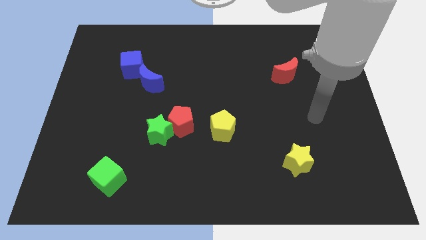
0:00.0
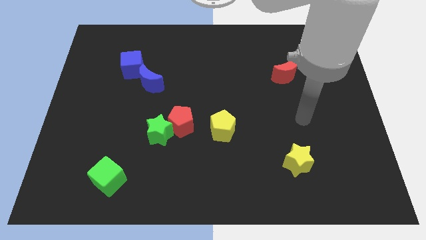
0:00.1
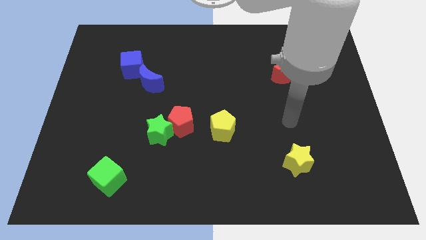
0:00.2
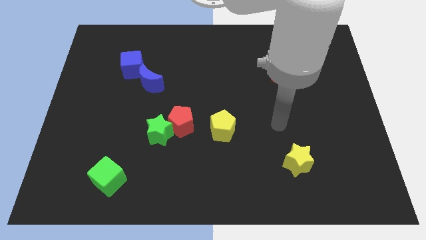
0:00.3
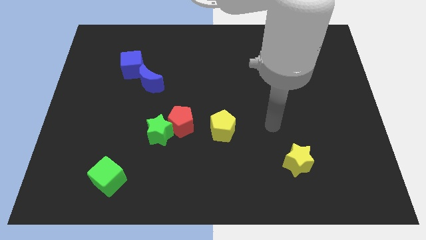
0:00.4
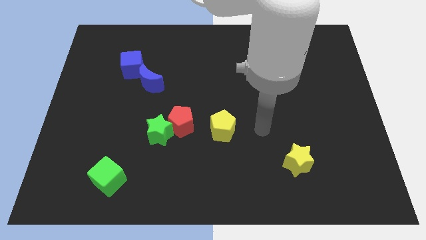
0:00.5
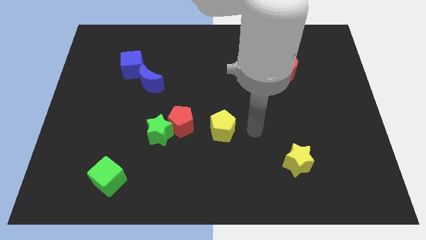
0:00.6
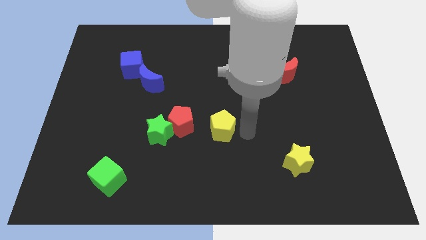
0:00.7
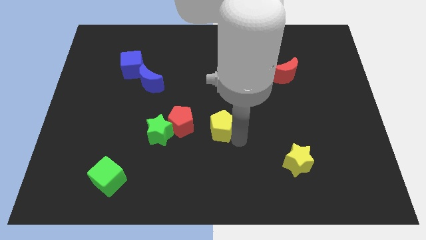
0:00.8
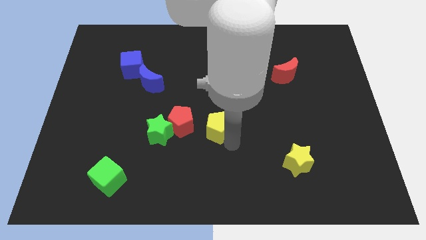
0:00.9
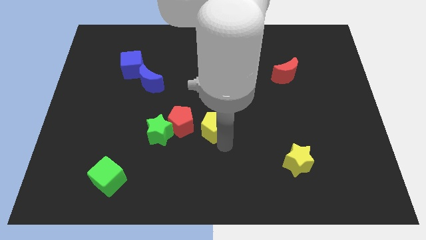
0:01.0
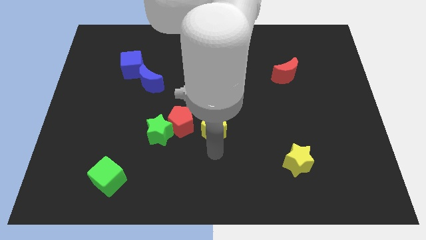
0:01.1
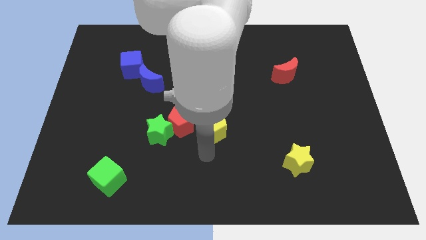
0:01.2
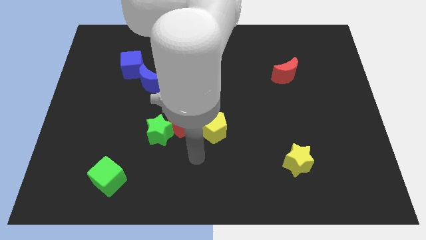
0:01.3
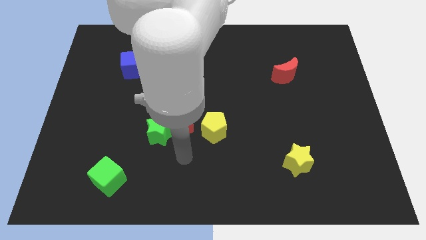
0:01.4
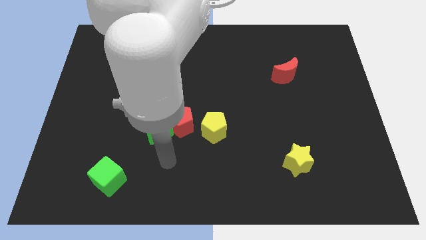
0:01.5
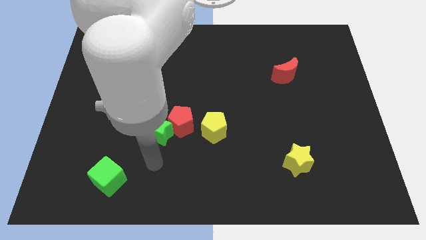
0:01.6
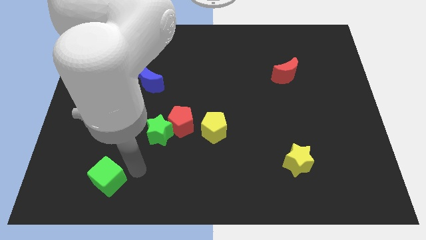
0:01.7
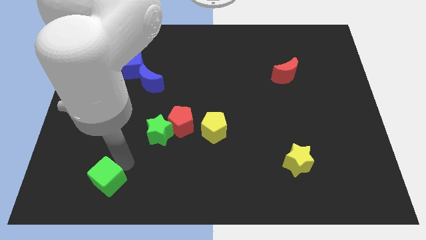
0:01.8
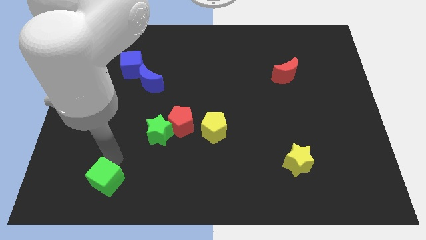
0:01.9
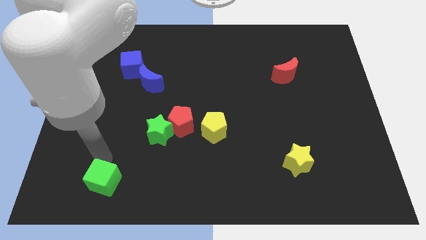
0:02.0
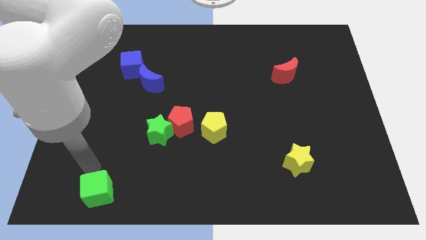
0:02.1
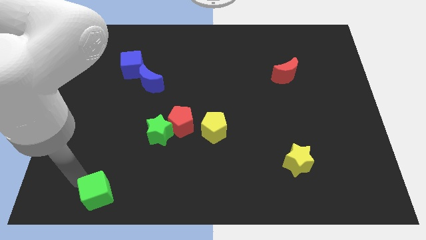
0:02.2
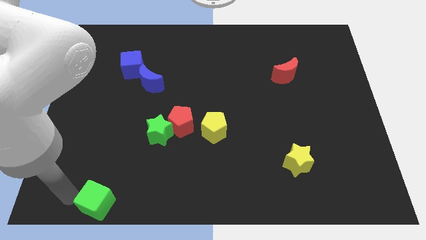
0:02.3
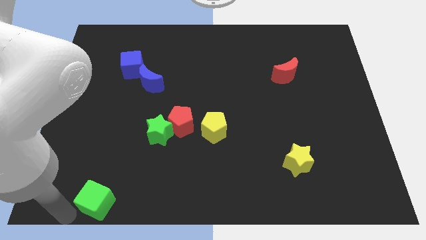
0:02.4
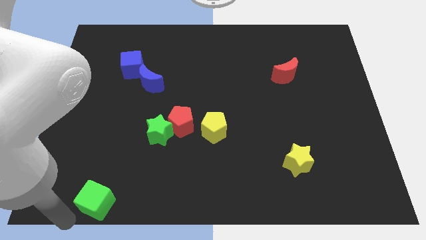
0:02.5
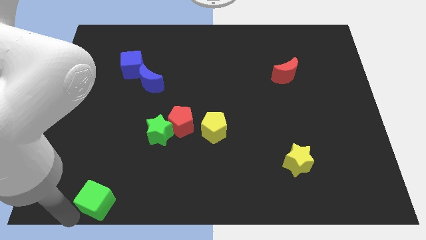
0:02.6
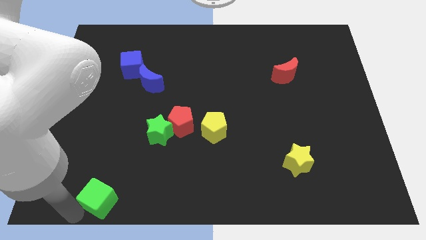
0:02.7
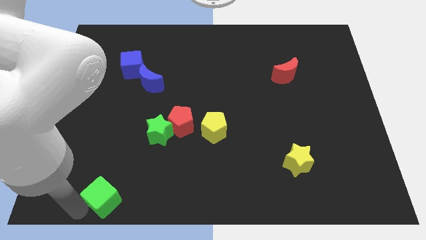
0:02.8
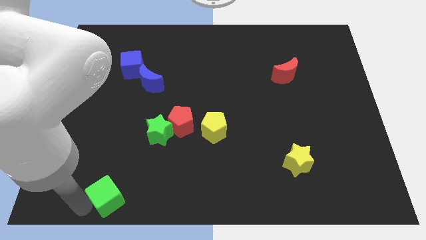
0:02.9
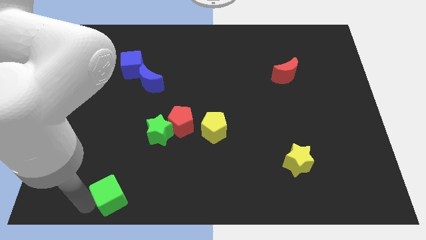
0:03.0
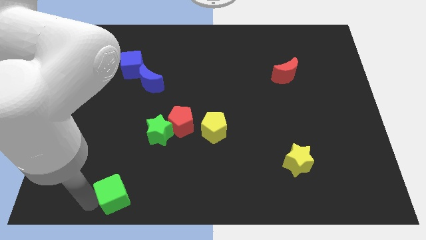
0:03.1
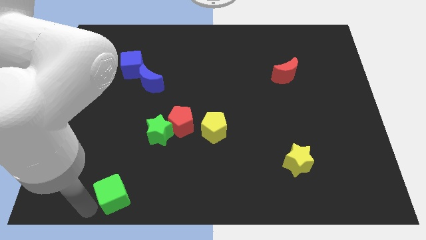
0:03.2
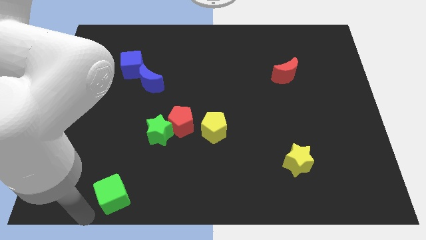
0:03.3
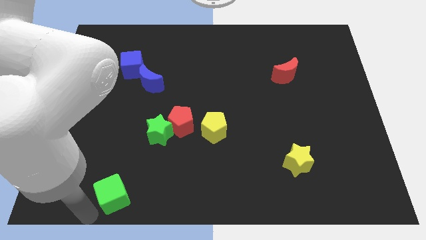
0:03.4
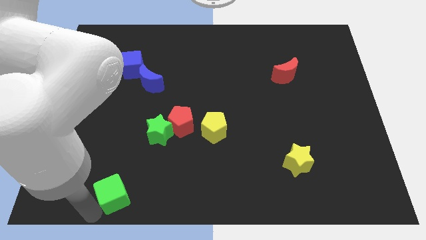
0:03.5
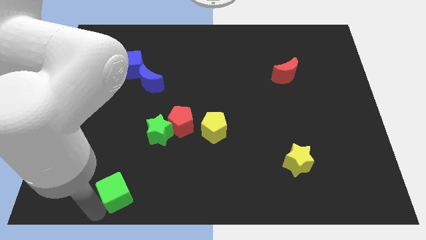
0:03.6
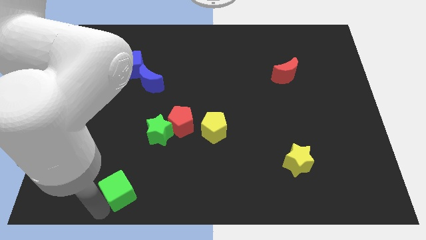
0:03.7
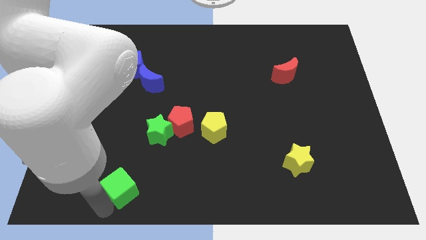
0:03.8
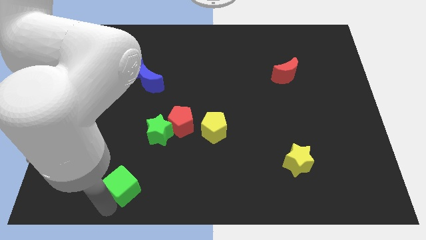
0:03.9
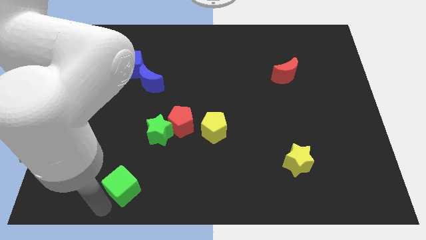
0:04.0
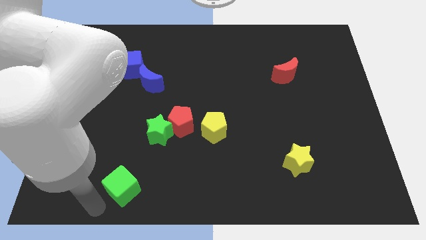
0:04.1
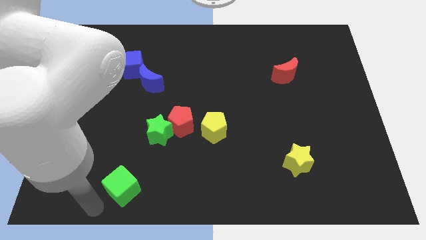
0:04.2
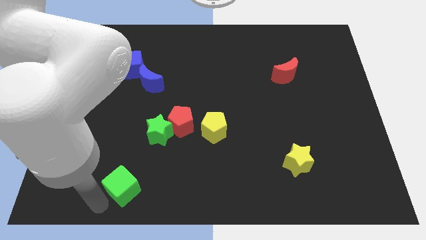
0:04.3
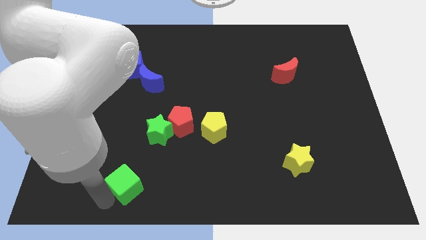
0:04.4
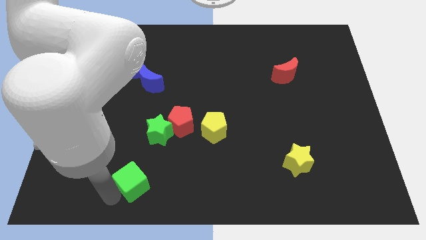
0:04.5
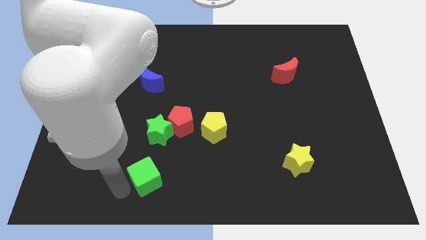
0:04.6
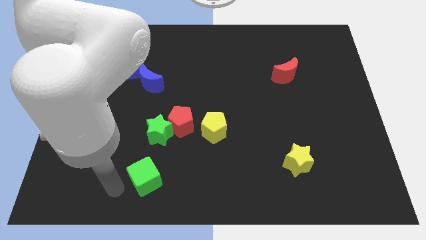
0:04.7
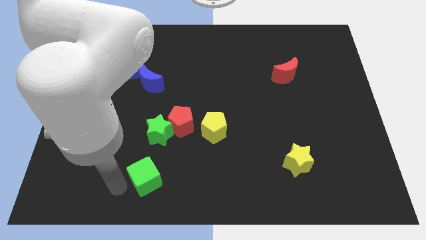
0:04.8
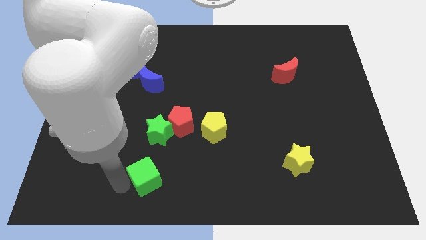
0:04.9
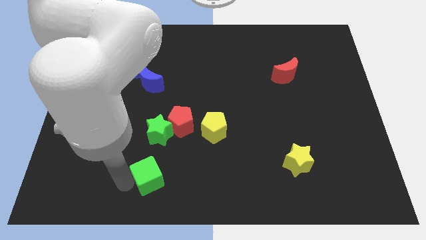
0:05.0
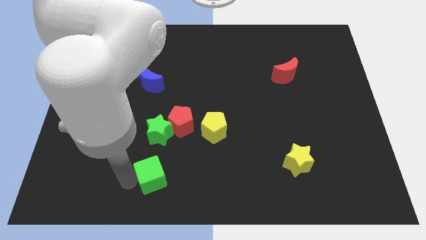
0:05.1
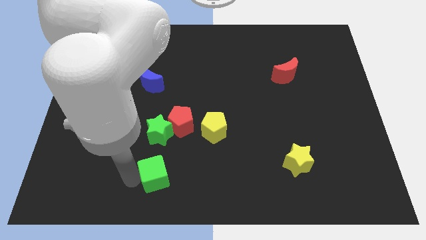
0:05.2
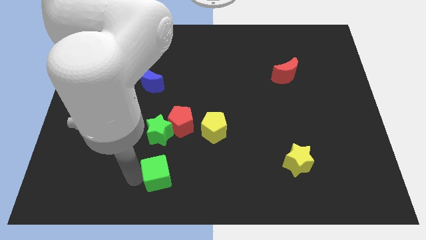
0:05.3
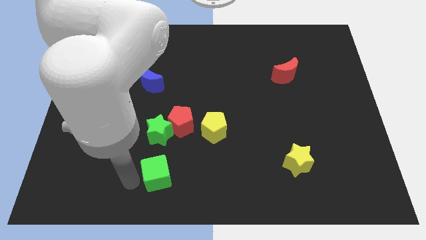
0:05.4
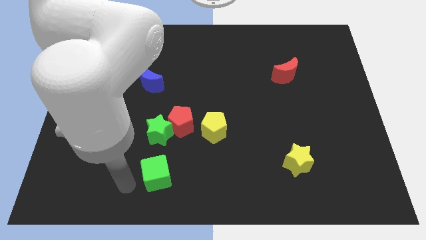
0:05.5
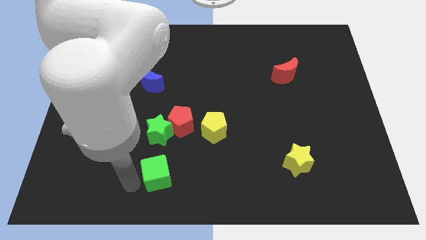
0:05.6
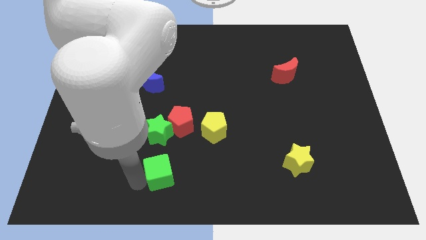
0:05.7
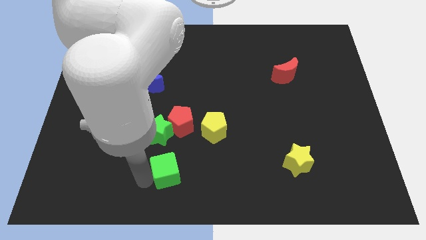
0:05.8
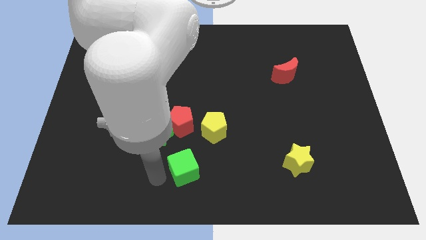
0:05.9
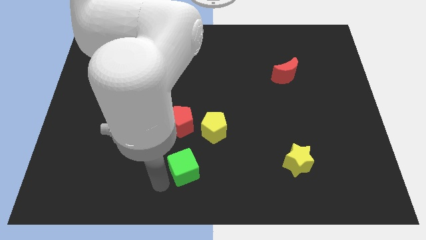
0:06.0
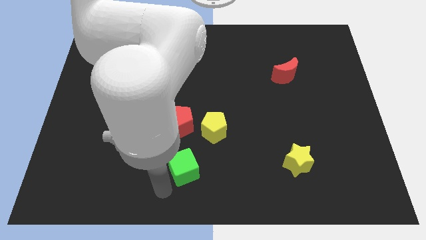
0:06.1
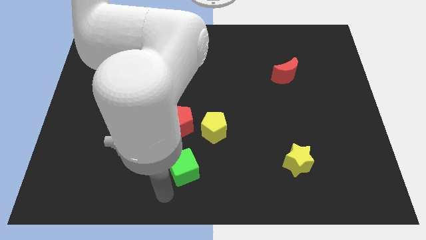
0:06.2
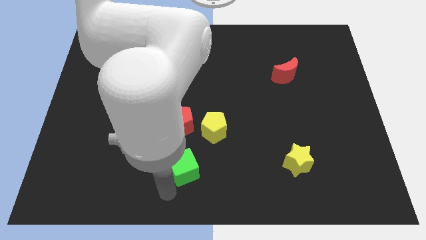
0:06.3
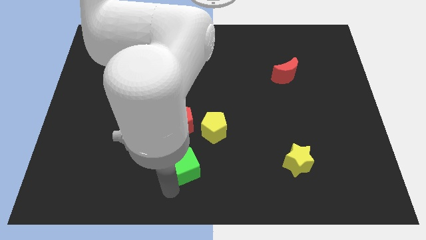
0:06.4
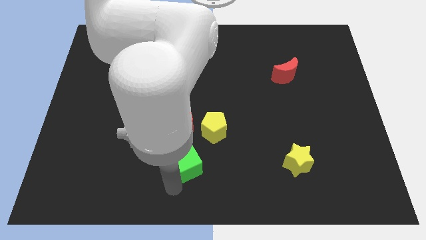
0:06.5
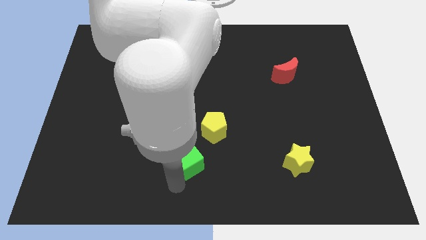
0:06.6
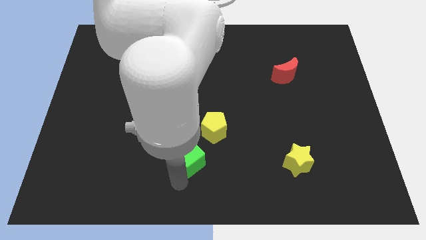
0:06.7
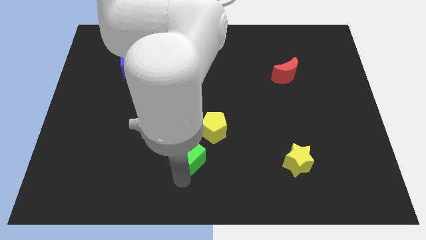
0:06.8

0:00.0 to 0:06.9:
move the green cube to the bottom right of the red pentagon
